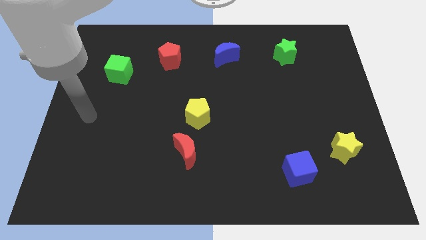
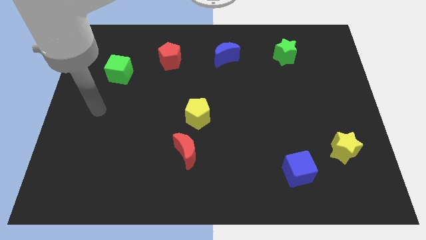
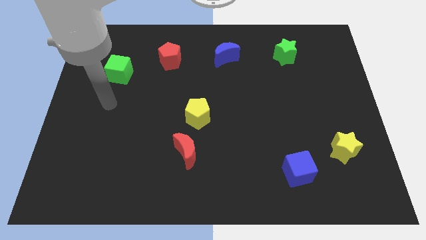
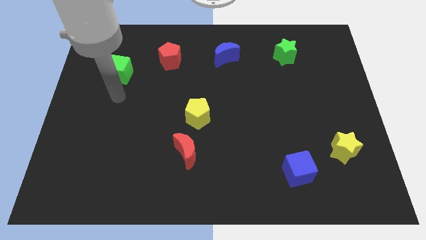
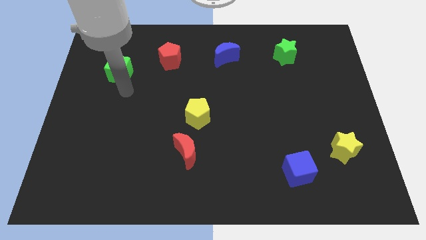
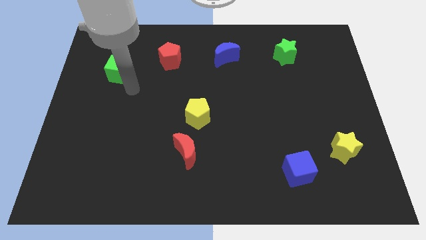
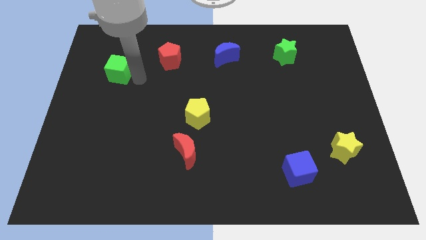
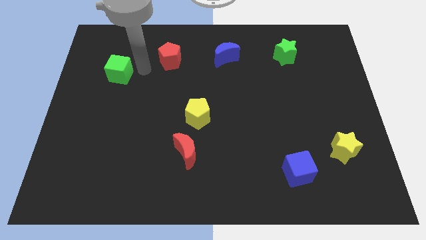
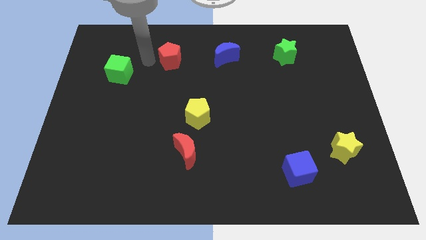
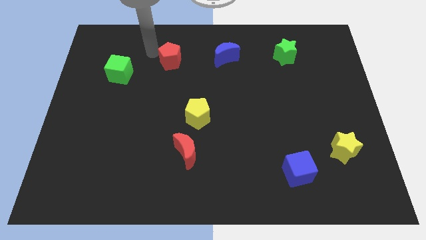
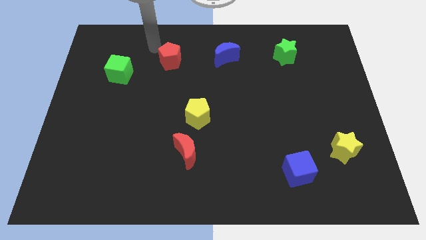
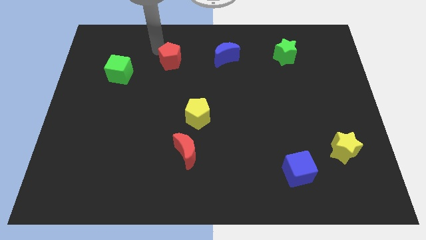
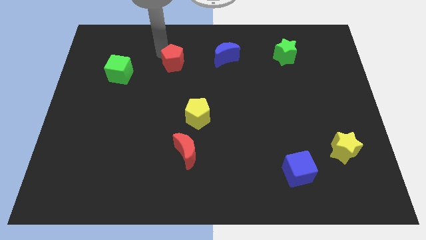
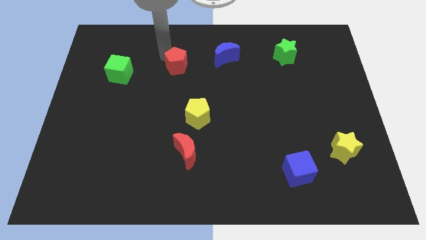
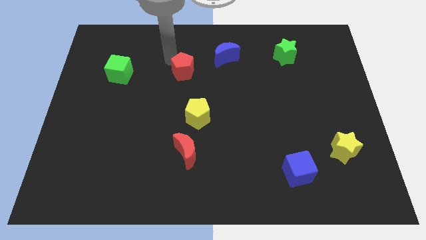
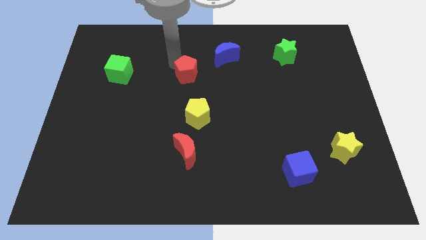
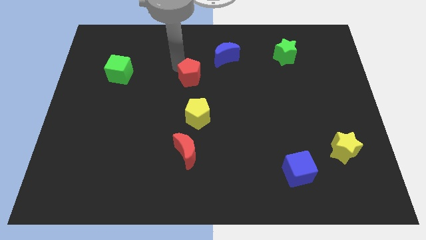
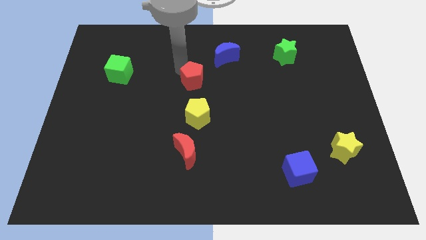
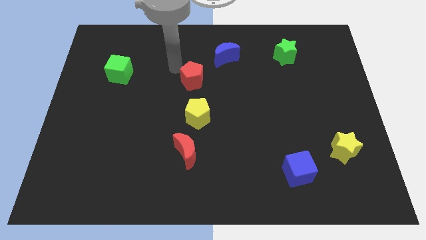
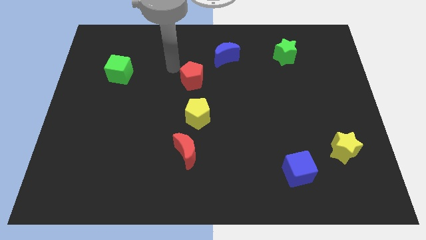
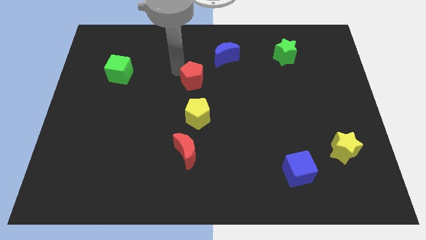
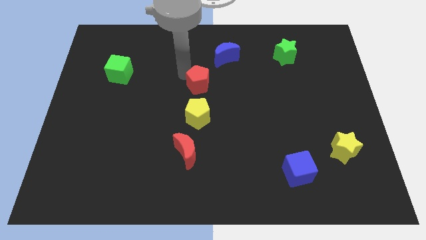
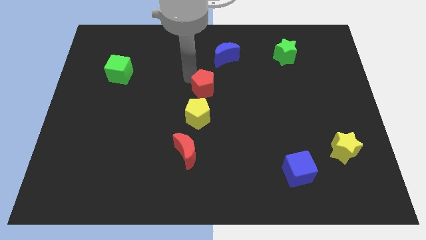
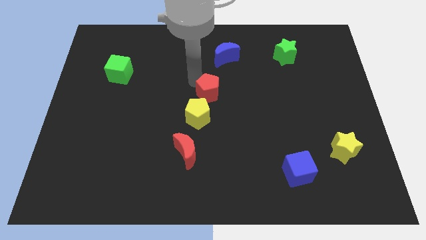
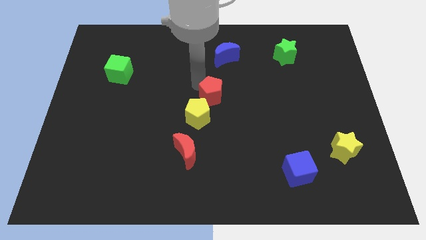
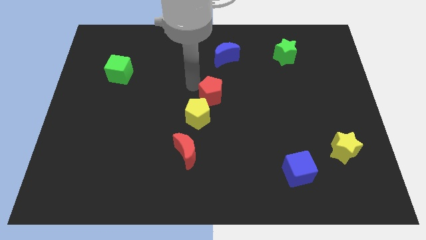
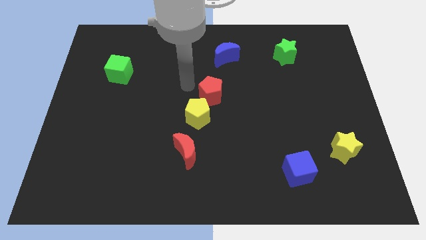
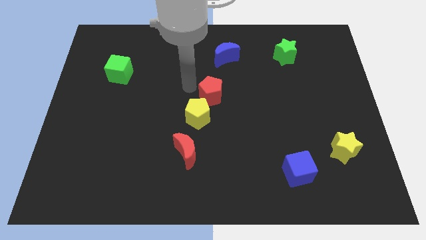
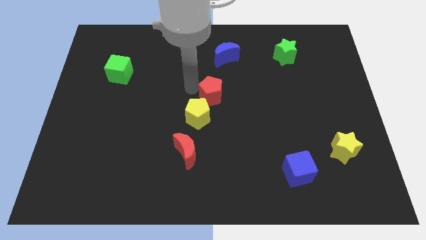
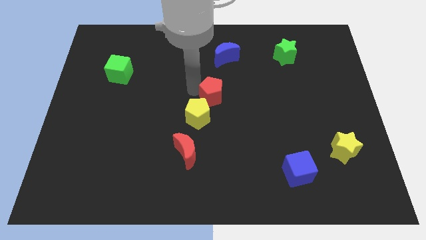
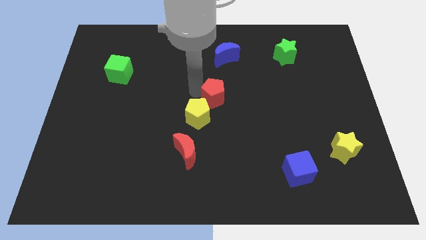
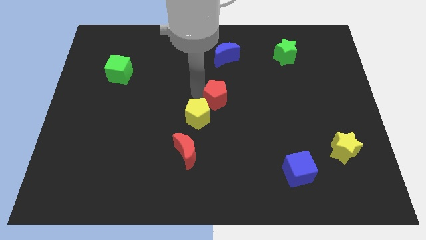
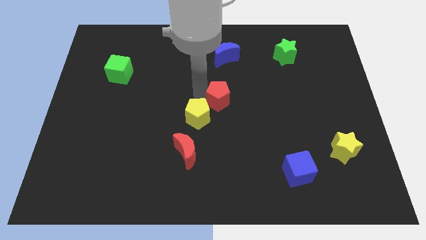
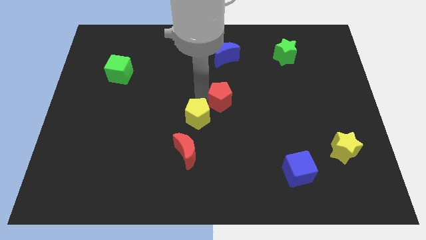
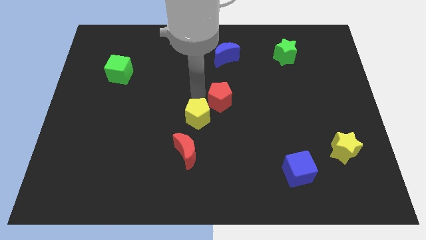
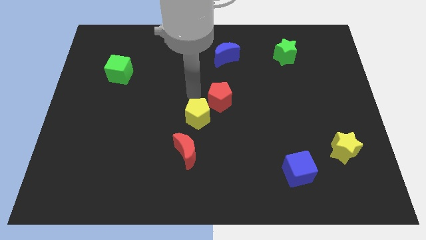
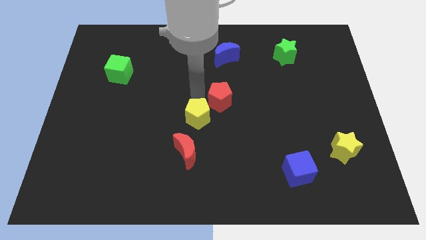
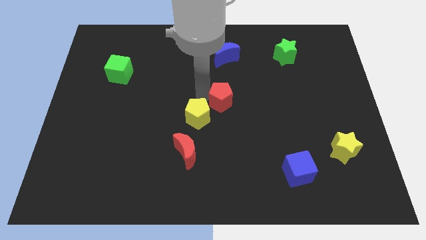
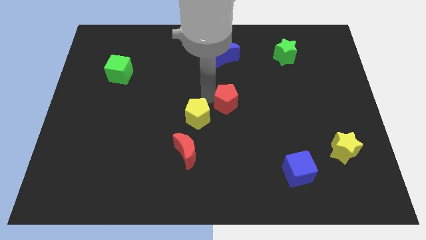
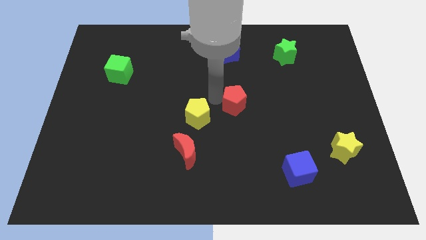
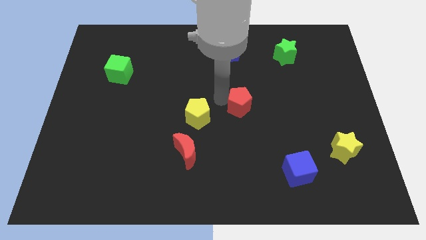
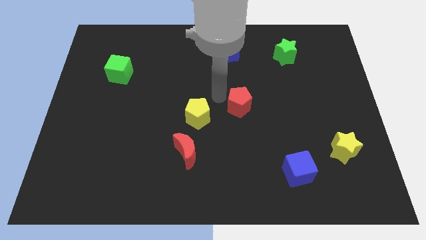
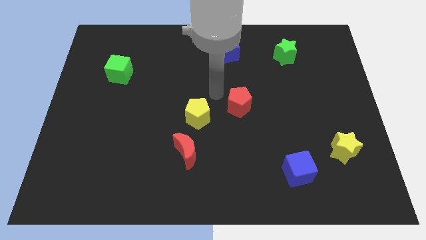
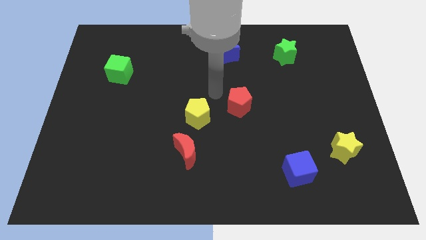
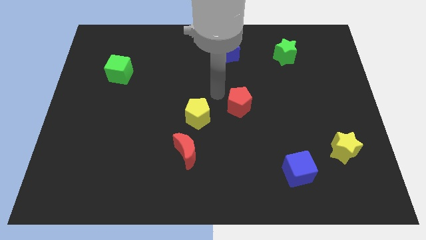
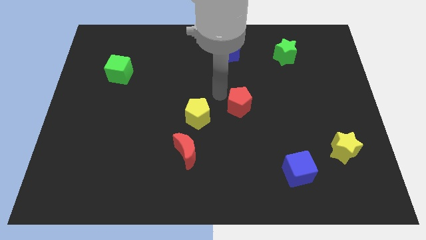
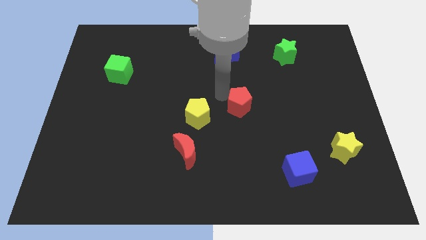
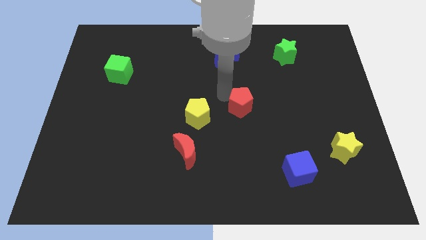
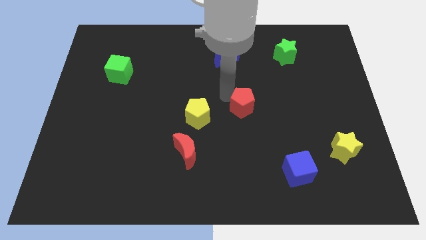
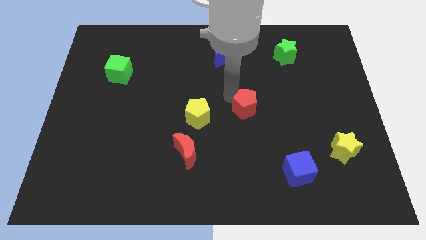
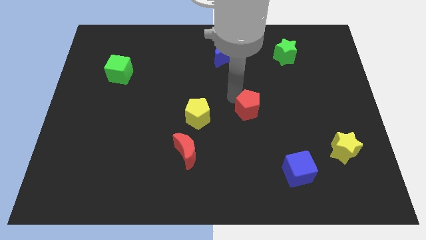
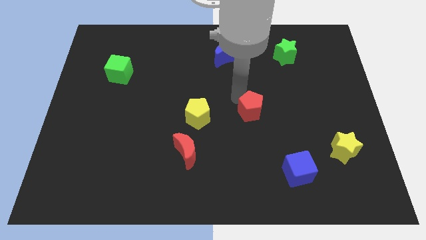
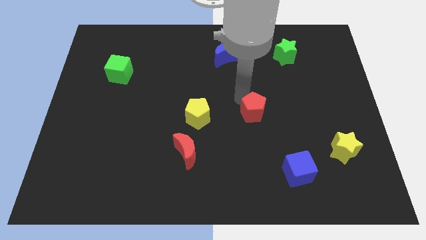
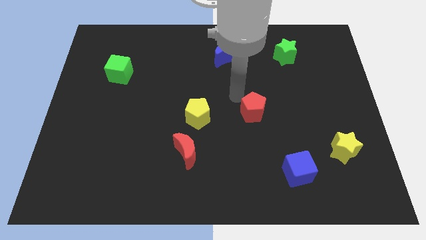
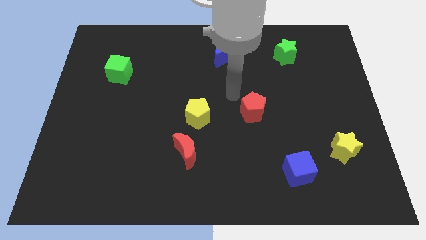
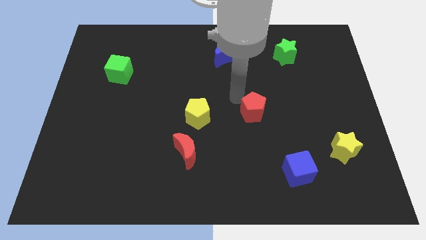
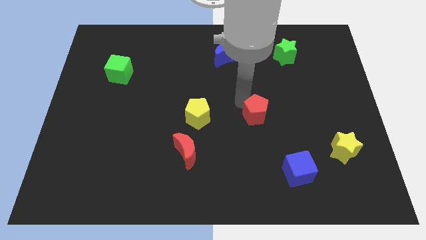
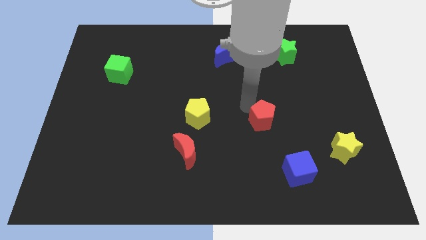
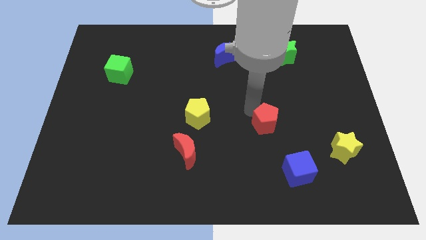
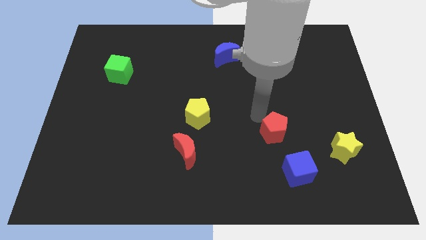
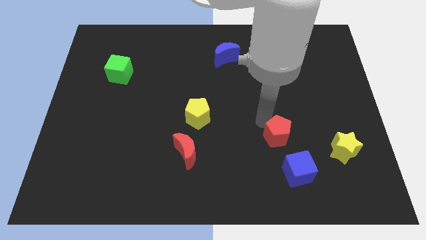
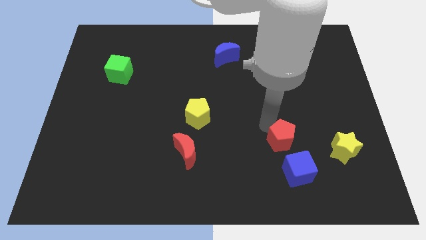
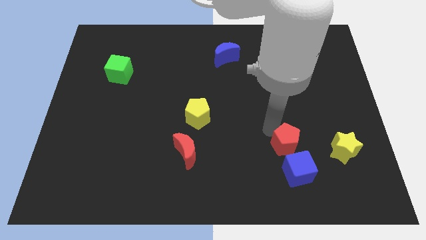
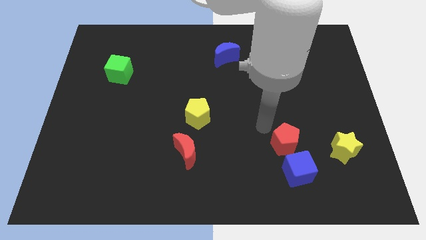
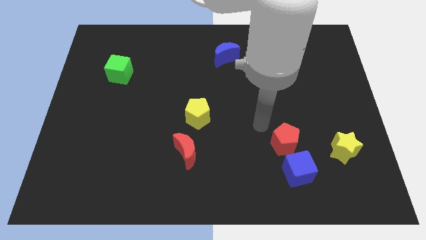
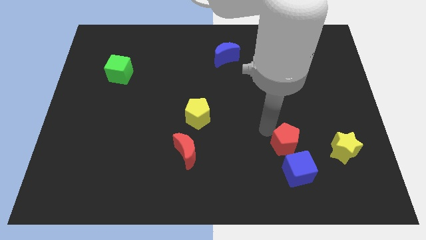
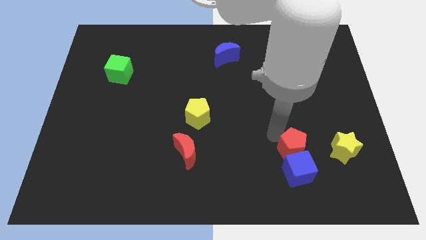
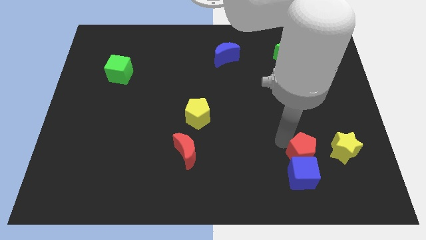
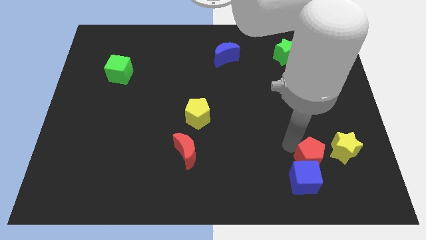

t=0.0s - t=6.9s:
slide the red pentagon diagonally down and to the left of the yellow star

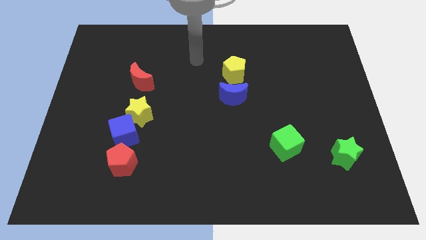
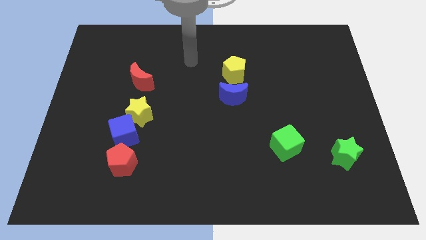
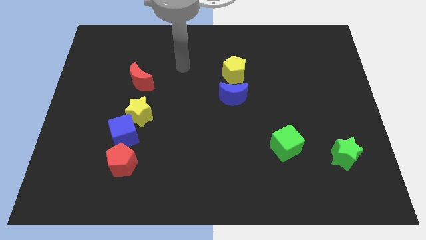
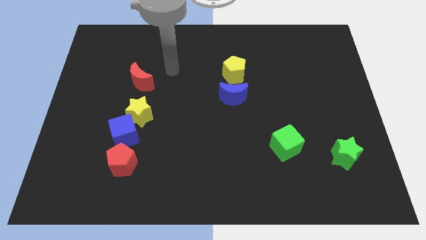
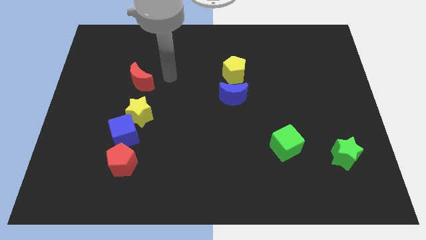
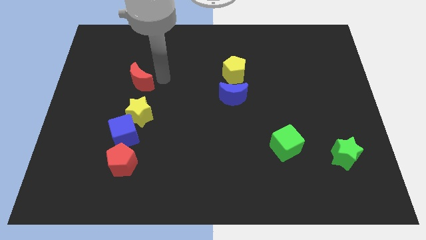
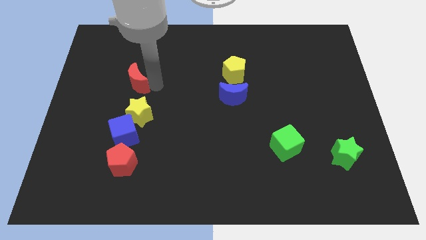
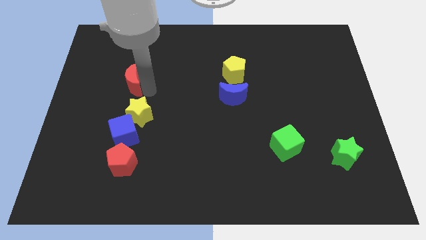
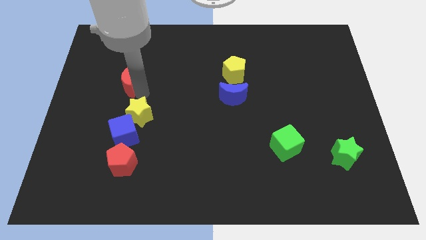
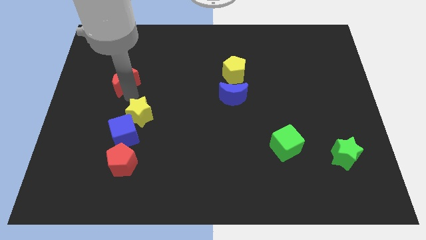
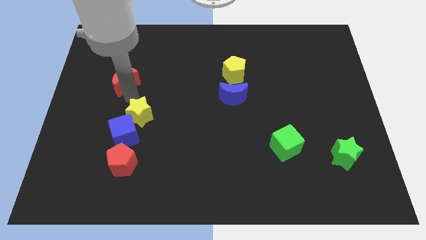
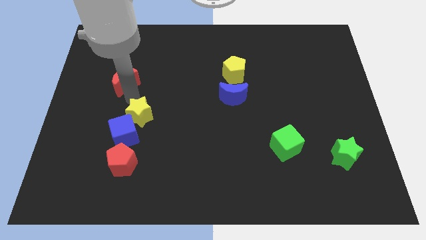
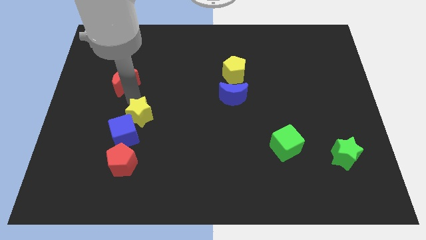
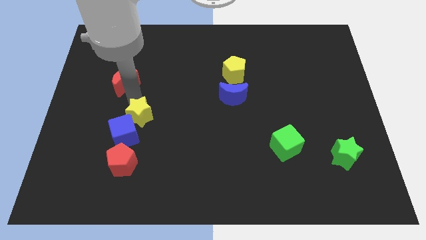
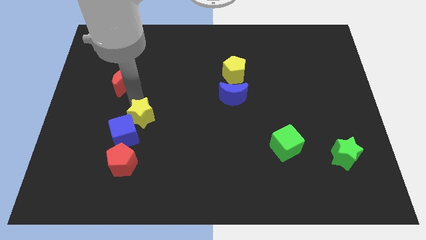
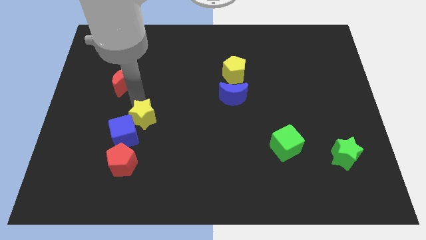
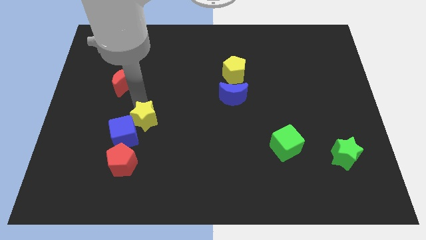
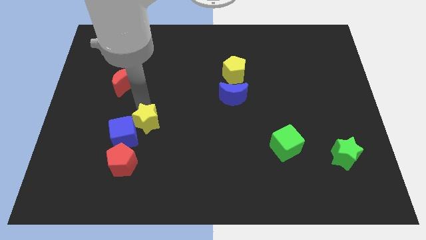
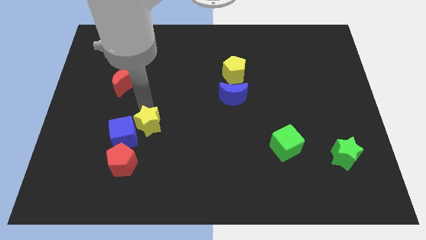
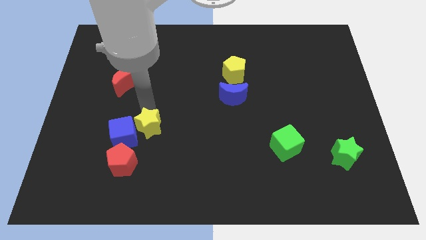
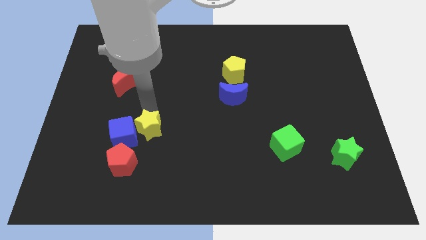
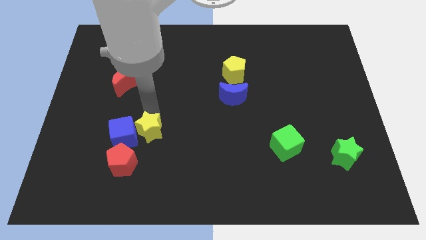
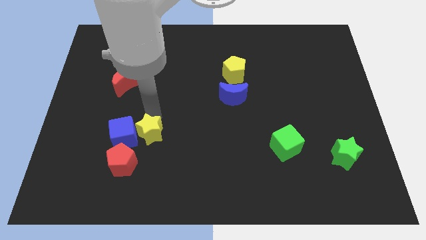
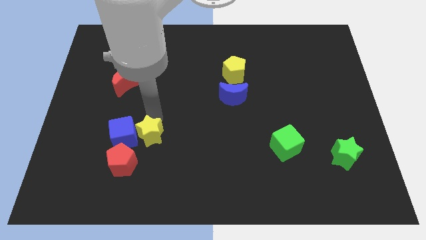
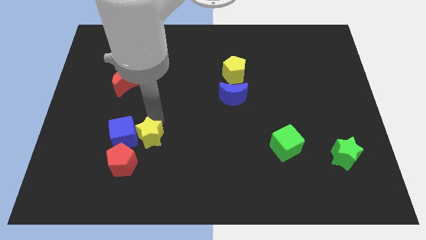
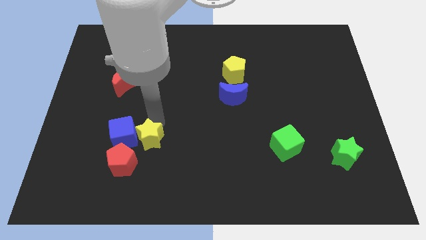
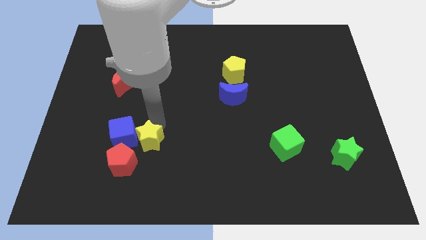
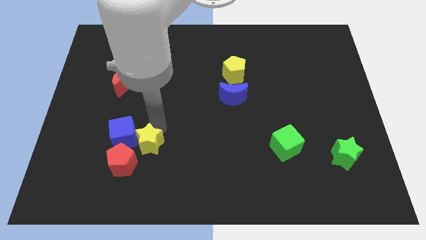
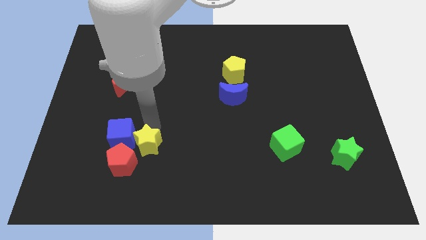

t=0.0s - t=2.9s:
put the yellow star right of the red pentagon
